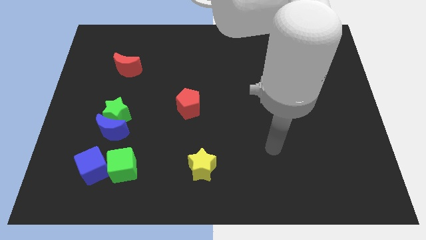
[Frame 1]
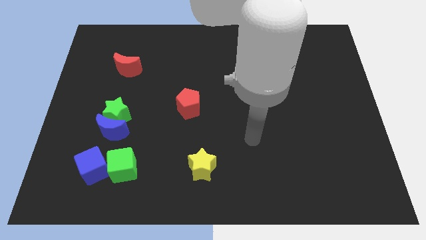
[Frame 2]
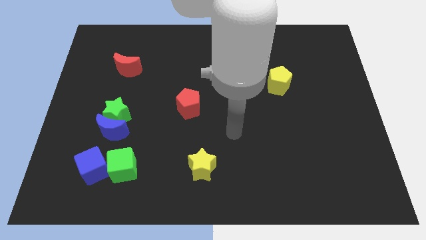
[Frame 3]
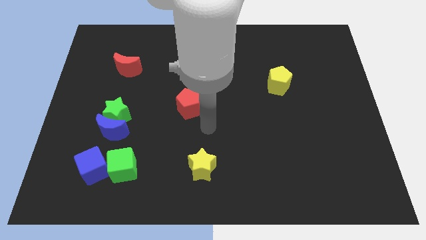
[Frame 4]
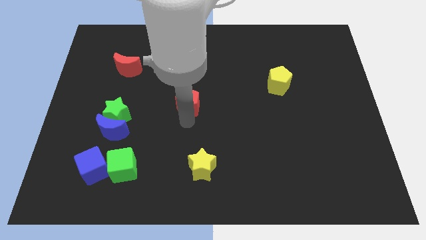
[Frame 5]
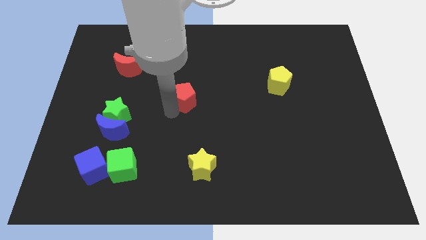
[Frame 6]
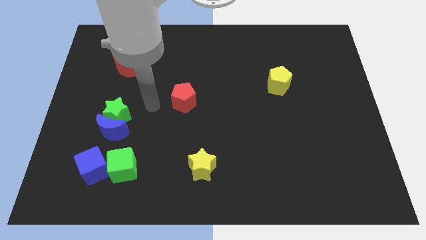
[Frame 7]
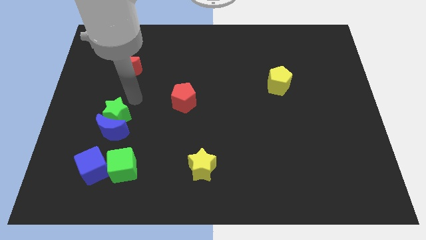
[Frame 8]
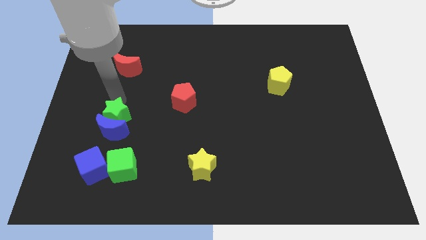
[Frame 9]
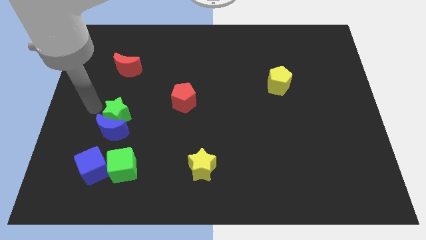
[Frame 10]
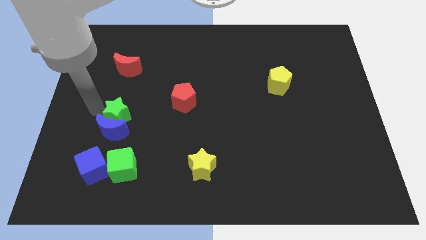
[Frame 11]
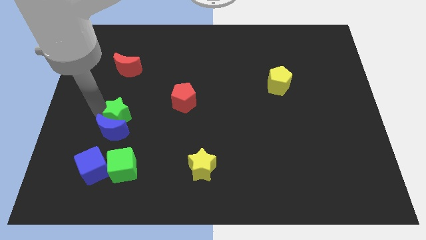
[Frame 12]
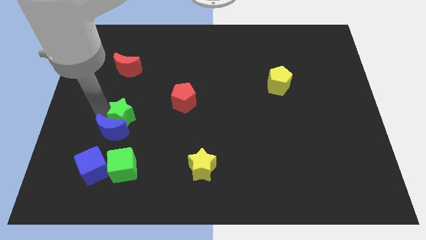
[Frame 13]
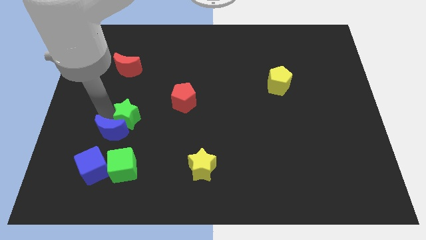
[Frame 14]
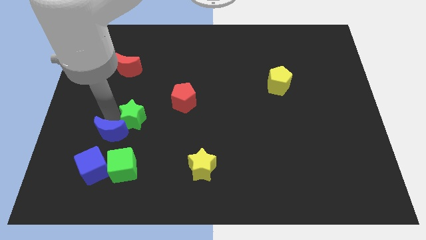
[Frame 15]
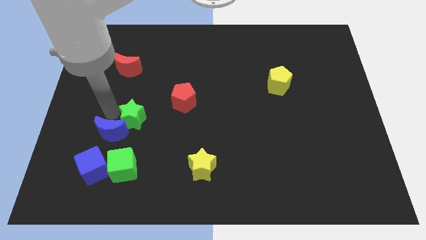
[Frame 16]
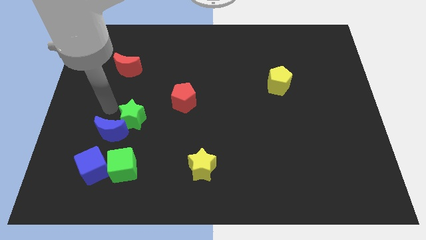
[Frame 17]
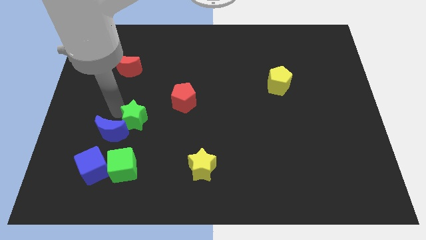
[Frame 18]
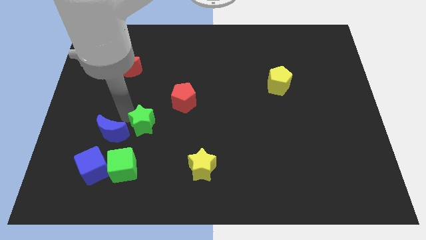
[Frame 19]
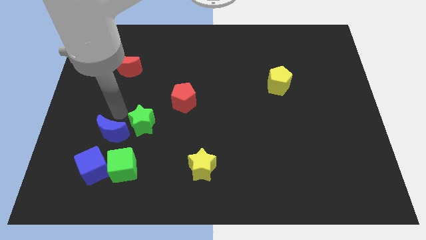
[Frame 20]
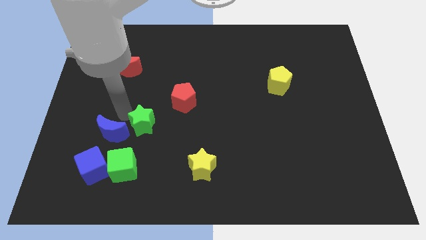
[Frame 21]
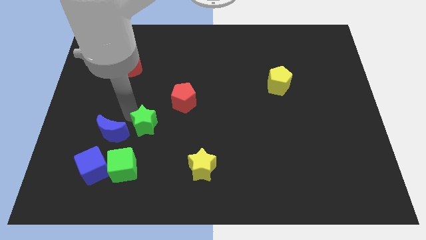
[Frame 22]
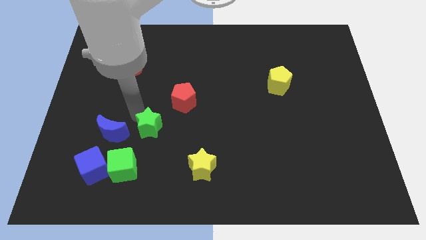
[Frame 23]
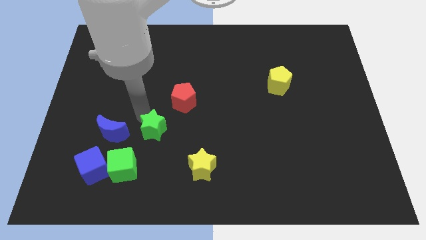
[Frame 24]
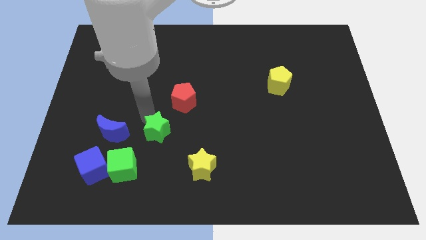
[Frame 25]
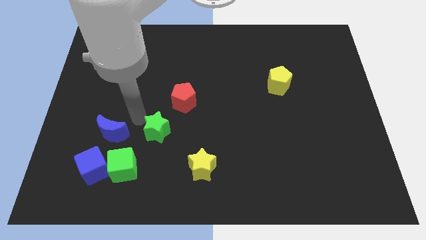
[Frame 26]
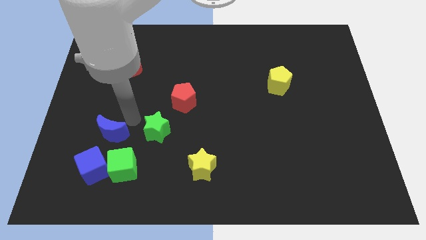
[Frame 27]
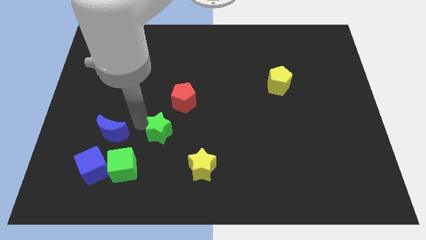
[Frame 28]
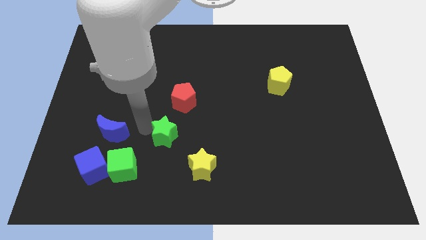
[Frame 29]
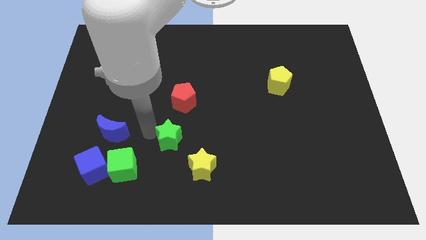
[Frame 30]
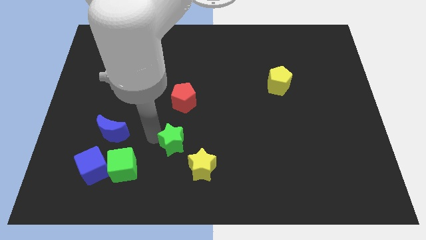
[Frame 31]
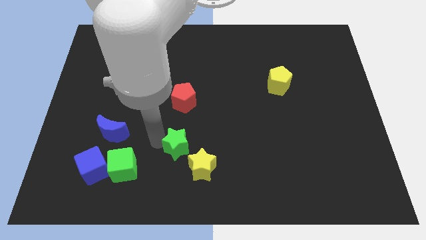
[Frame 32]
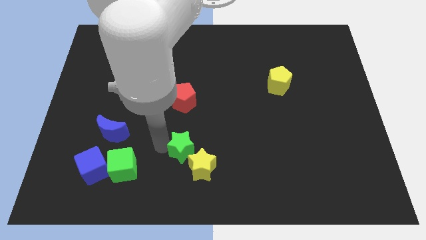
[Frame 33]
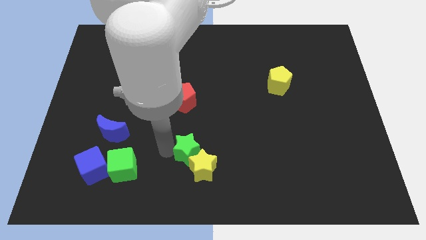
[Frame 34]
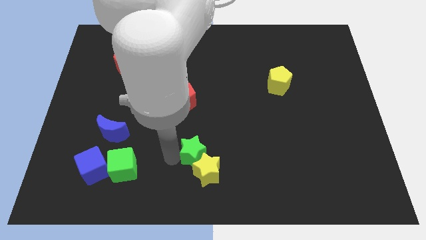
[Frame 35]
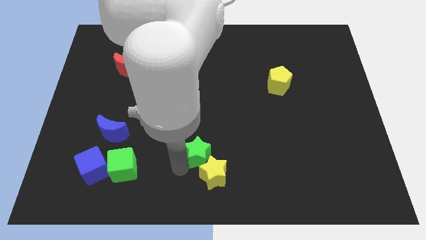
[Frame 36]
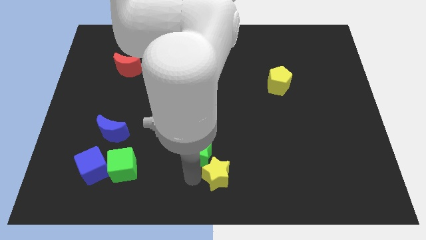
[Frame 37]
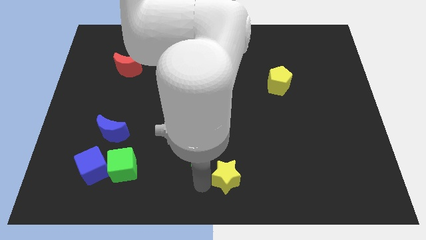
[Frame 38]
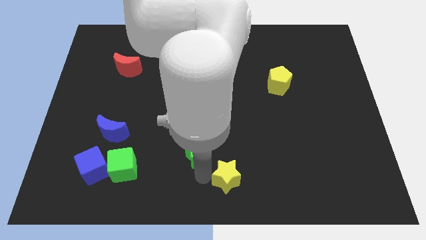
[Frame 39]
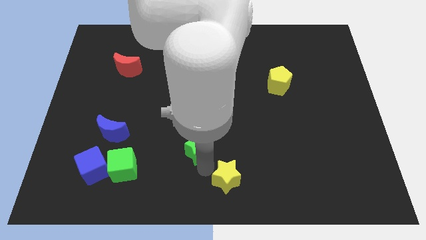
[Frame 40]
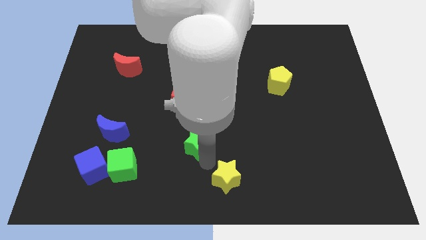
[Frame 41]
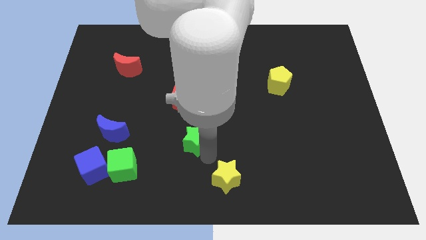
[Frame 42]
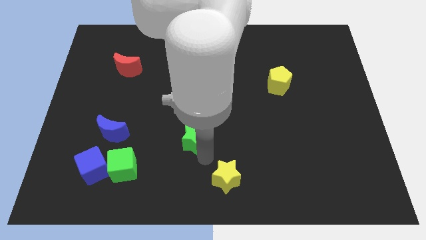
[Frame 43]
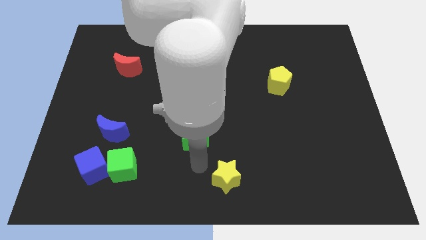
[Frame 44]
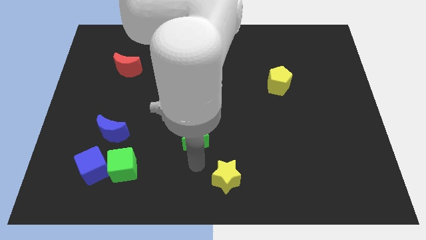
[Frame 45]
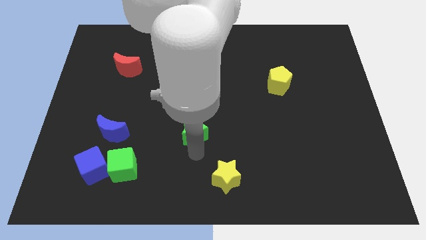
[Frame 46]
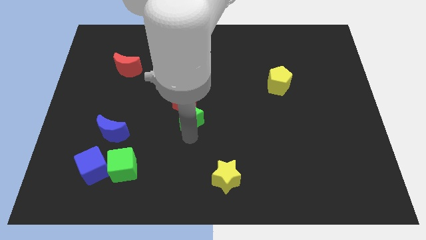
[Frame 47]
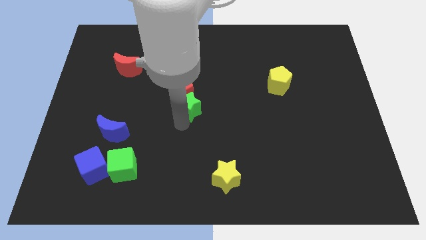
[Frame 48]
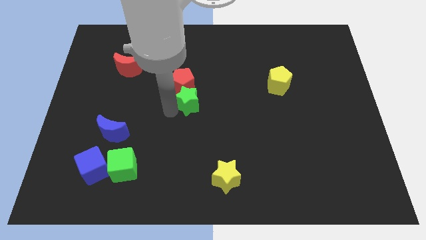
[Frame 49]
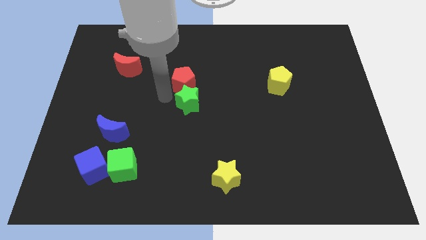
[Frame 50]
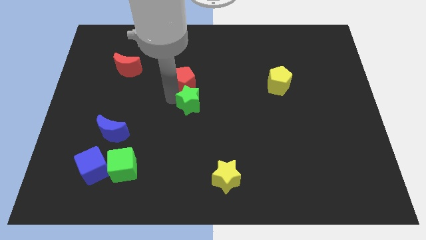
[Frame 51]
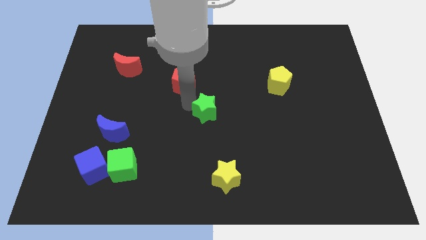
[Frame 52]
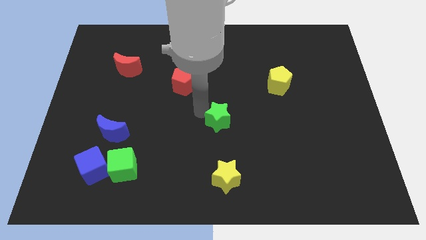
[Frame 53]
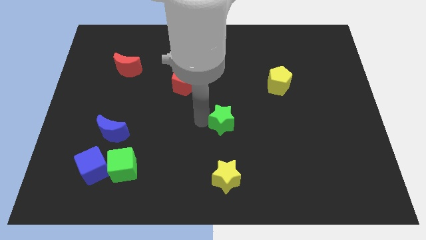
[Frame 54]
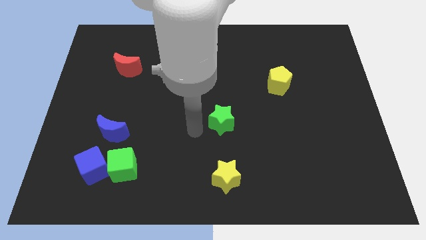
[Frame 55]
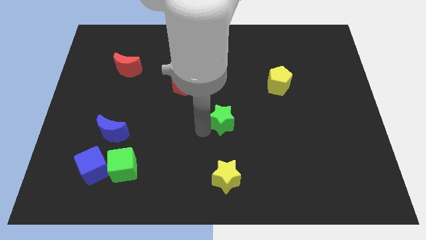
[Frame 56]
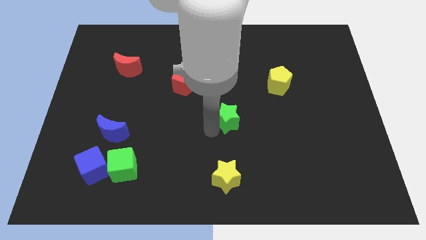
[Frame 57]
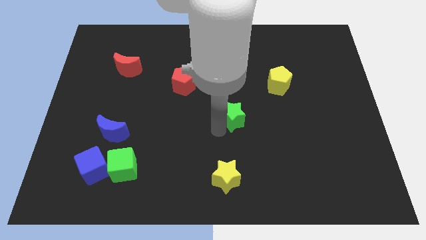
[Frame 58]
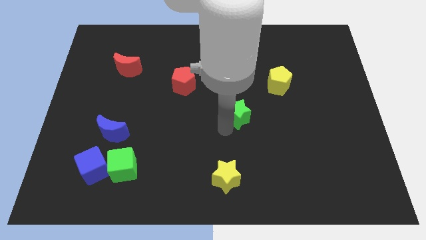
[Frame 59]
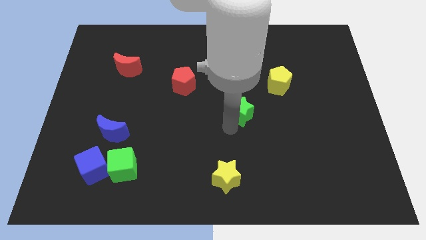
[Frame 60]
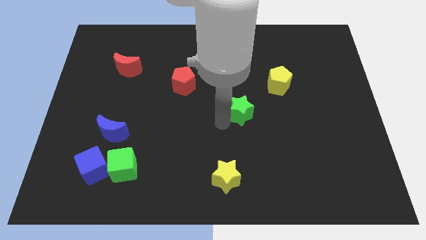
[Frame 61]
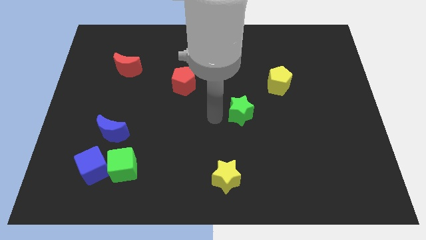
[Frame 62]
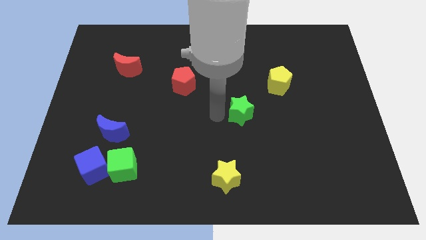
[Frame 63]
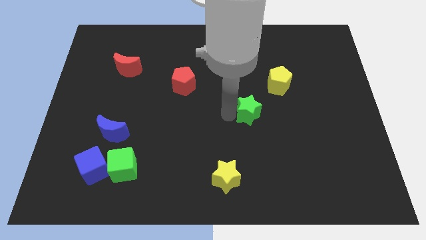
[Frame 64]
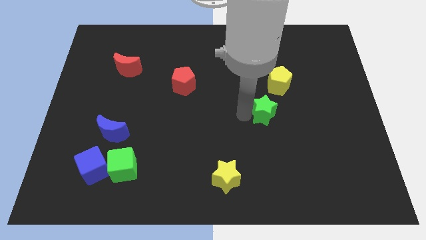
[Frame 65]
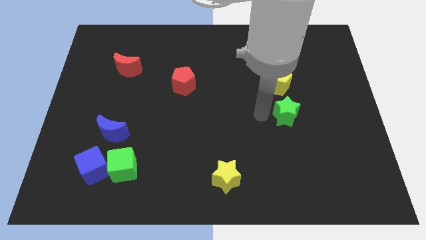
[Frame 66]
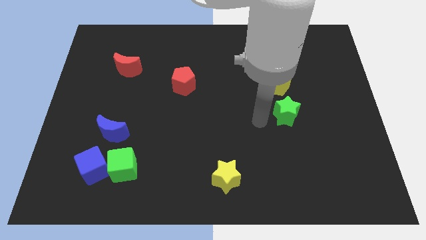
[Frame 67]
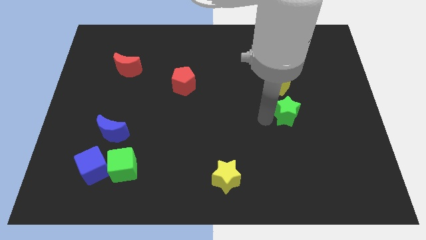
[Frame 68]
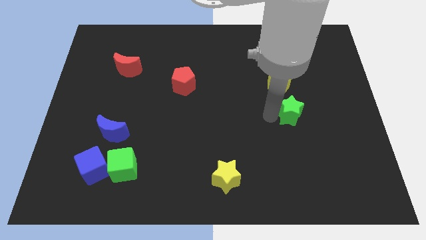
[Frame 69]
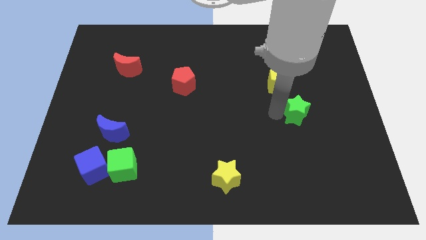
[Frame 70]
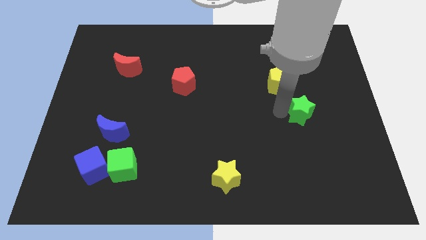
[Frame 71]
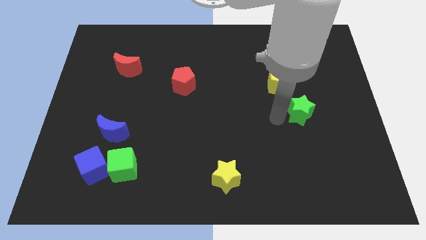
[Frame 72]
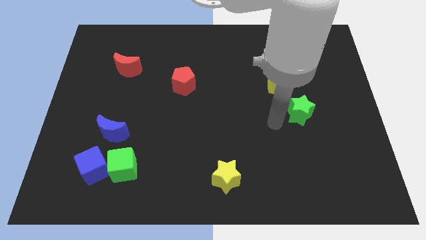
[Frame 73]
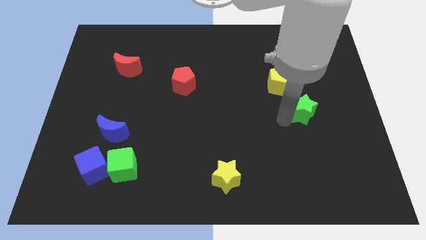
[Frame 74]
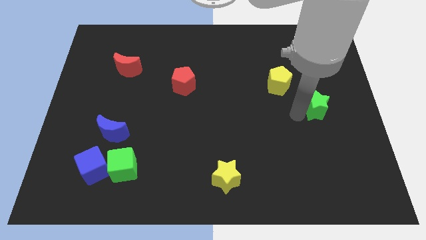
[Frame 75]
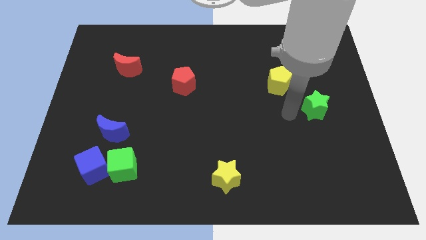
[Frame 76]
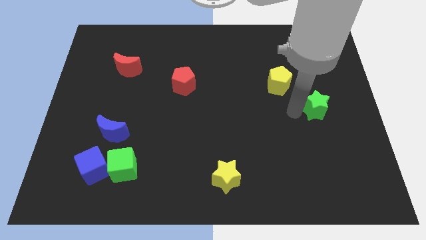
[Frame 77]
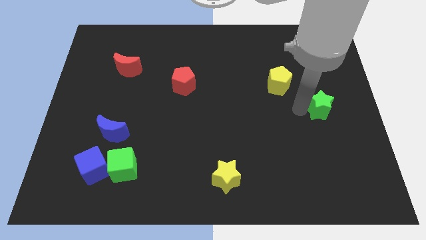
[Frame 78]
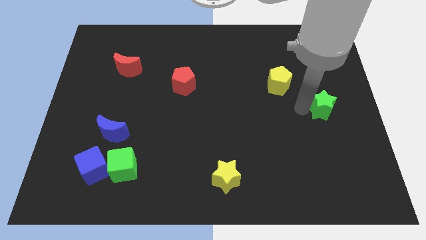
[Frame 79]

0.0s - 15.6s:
put the green star to the right side
